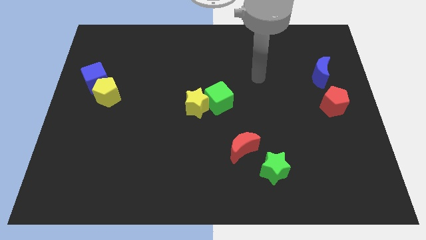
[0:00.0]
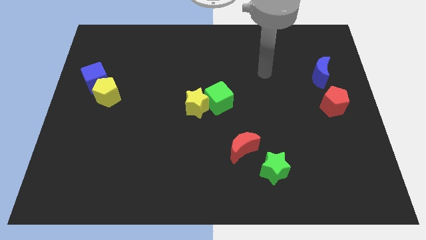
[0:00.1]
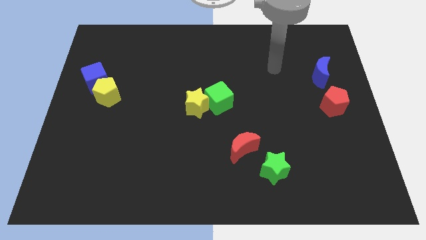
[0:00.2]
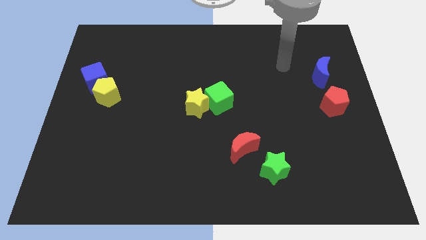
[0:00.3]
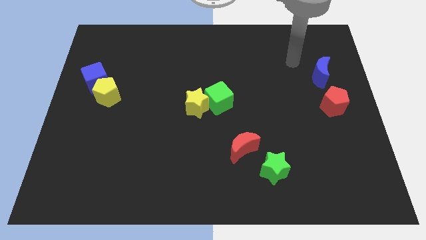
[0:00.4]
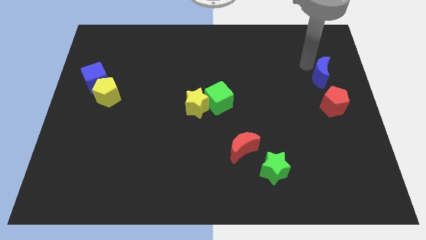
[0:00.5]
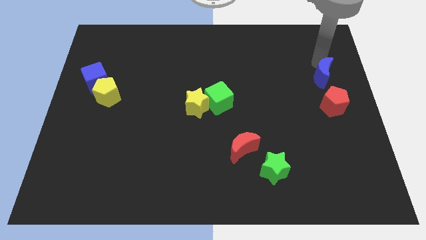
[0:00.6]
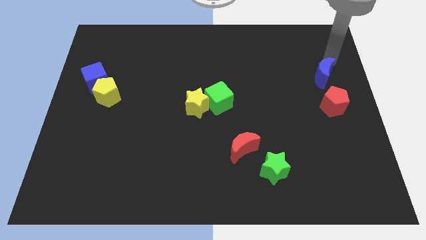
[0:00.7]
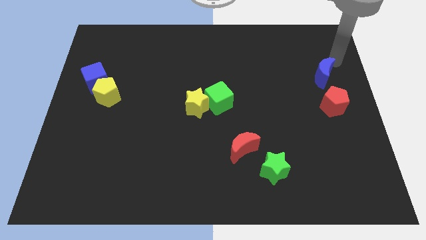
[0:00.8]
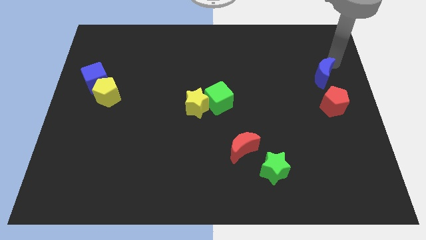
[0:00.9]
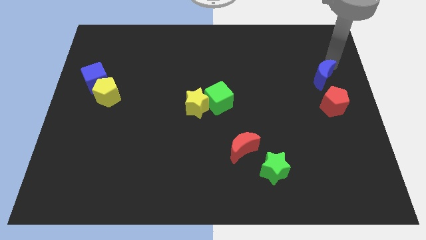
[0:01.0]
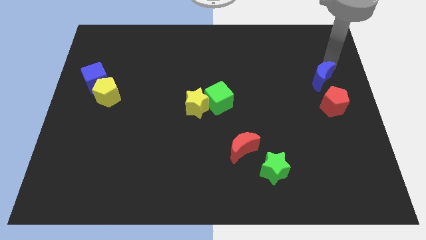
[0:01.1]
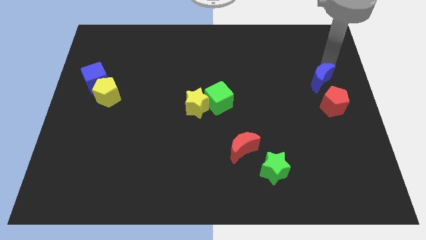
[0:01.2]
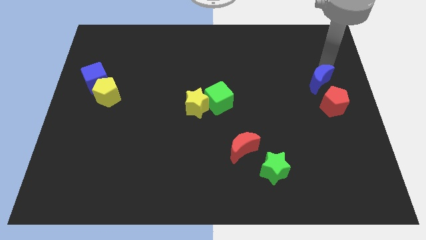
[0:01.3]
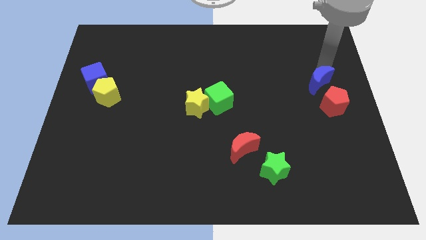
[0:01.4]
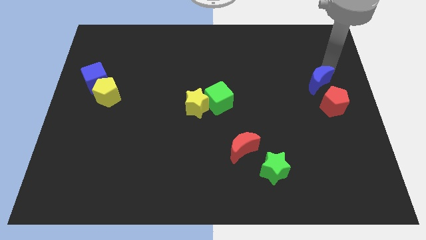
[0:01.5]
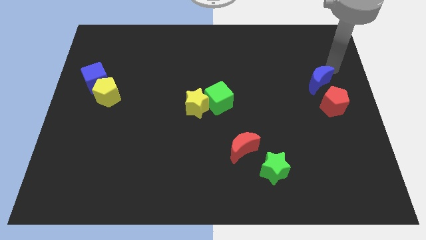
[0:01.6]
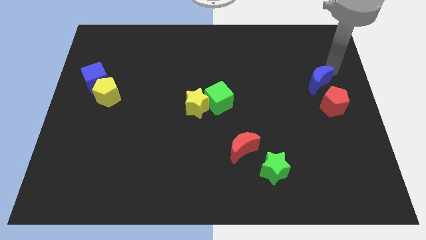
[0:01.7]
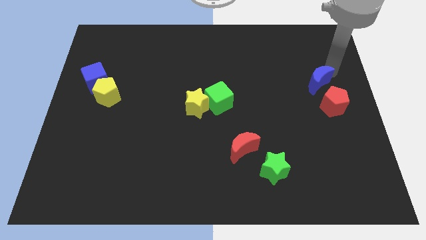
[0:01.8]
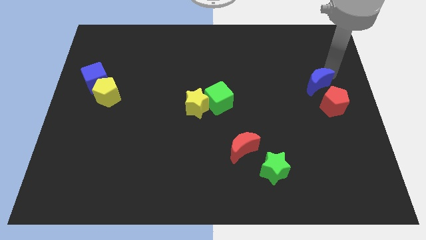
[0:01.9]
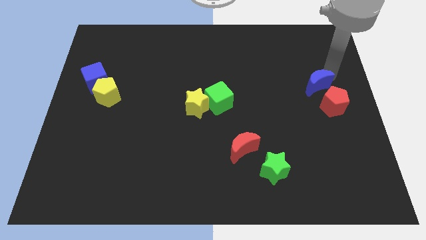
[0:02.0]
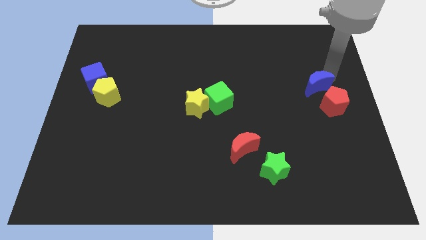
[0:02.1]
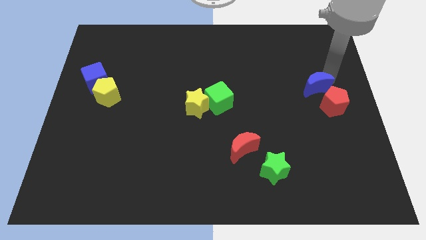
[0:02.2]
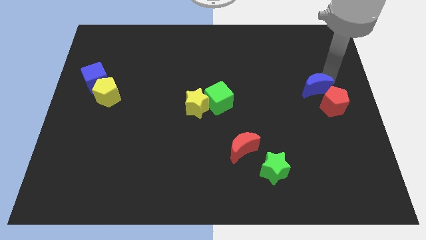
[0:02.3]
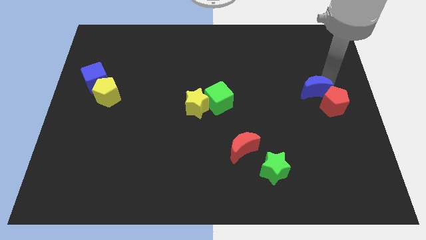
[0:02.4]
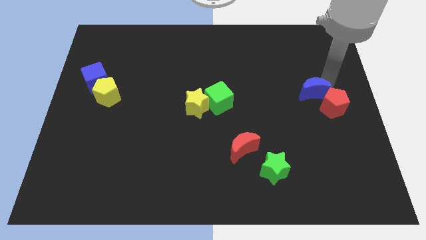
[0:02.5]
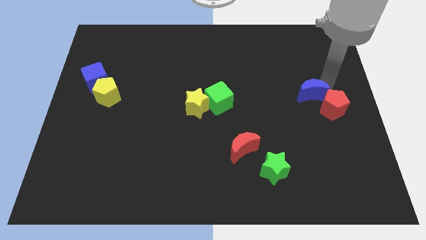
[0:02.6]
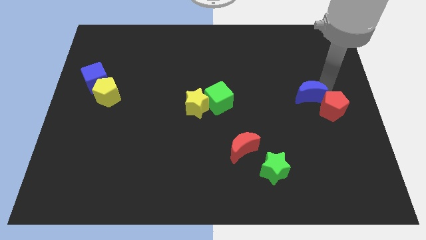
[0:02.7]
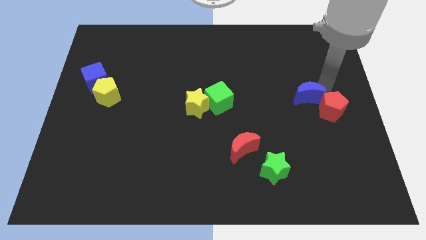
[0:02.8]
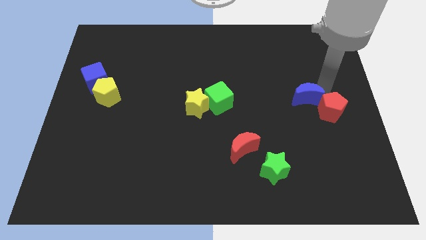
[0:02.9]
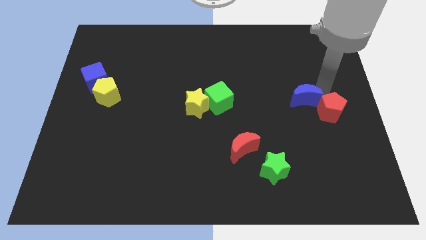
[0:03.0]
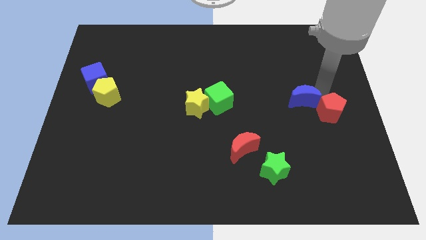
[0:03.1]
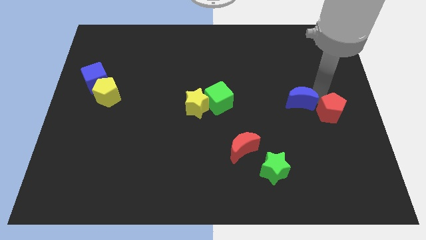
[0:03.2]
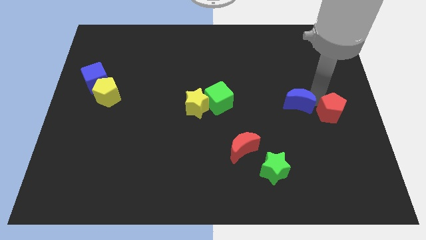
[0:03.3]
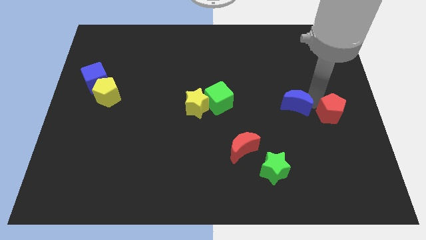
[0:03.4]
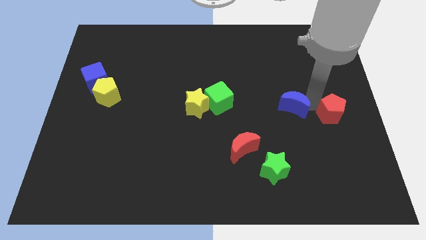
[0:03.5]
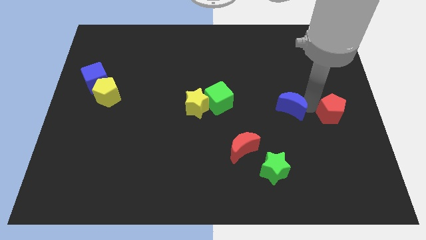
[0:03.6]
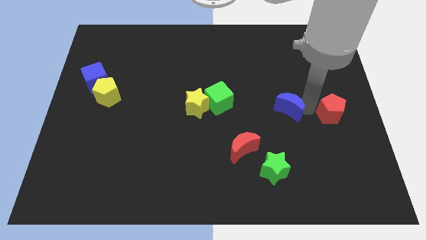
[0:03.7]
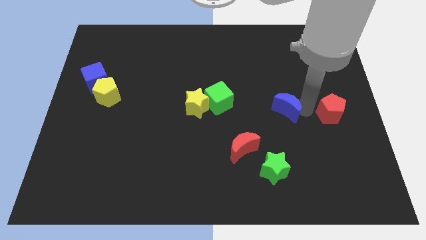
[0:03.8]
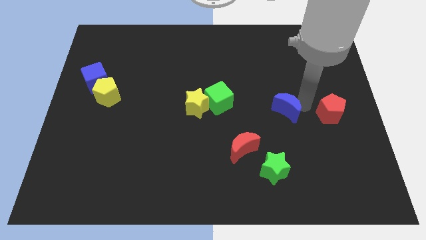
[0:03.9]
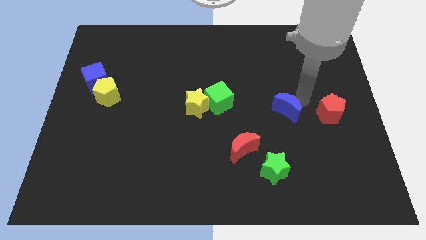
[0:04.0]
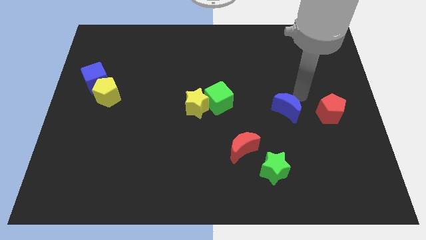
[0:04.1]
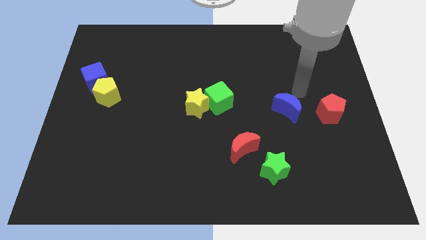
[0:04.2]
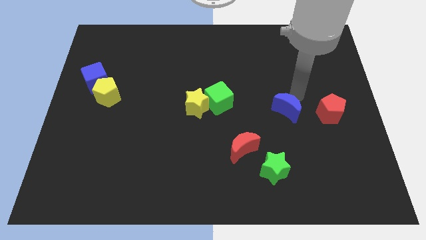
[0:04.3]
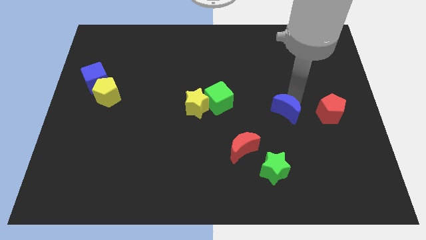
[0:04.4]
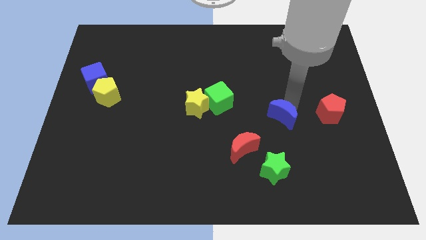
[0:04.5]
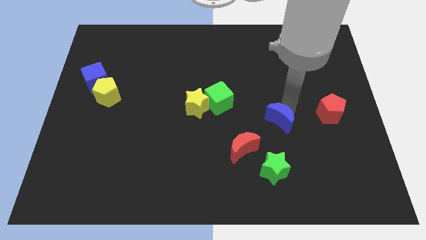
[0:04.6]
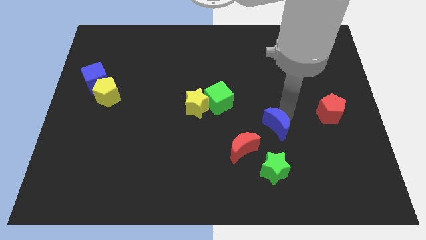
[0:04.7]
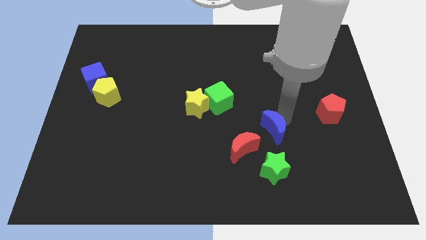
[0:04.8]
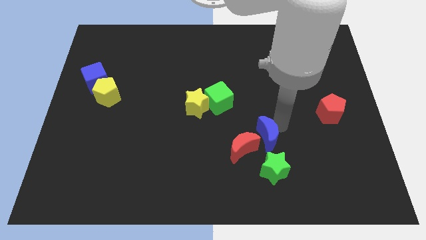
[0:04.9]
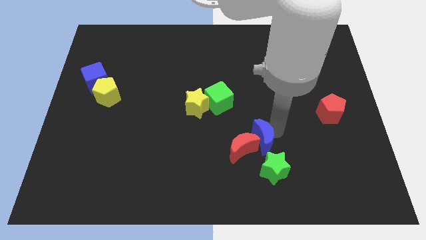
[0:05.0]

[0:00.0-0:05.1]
push the blue moon next to the red moon

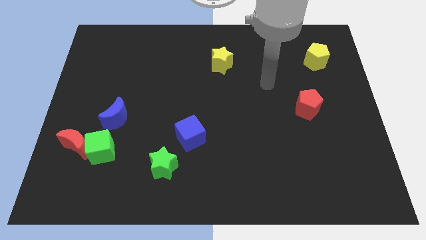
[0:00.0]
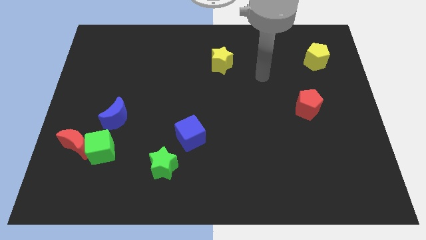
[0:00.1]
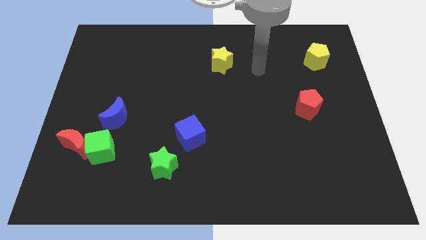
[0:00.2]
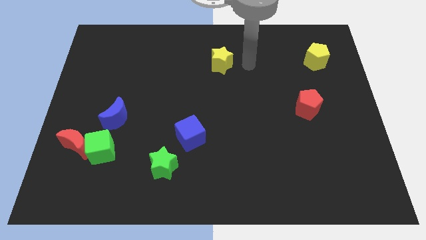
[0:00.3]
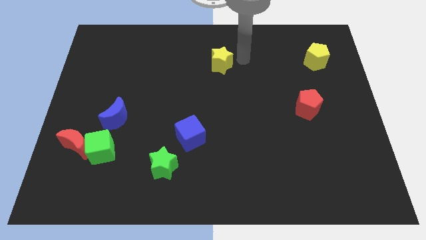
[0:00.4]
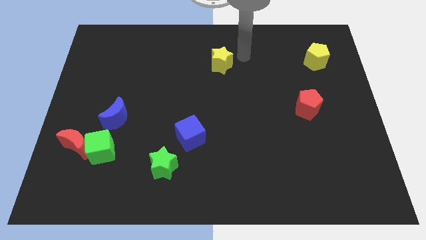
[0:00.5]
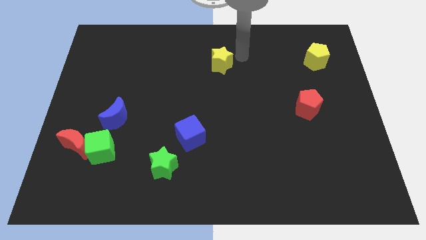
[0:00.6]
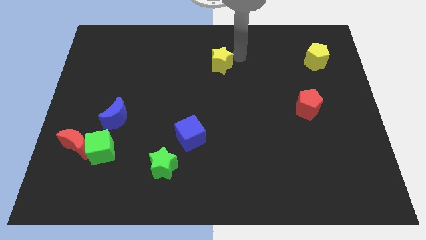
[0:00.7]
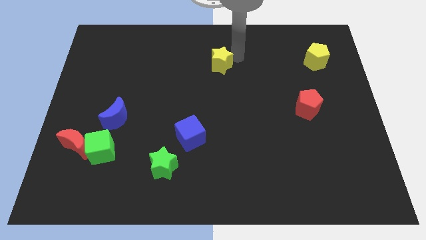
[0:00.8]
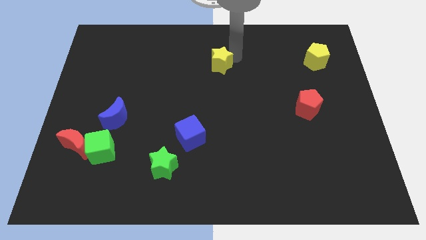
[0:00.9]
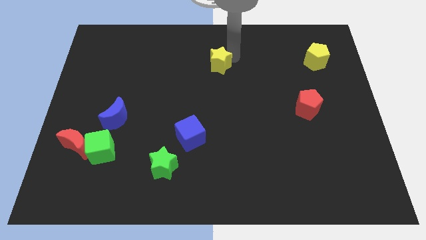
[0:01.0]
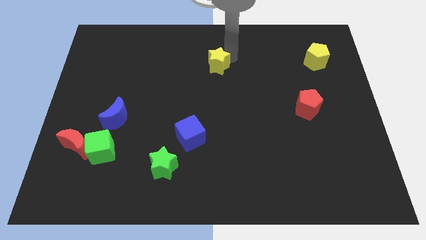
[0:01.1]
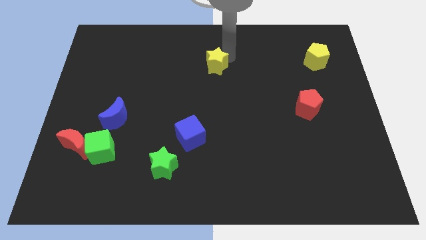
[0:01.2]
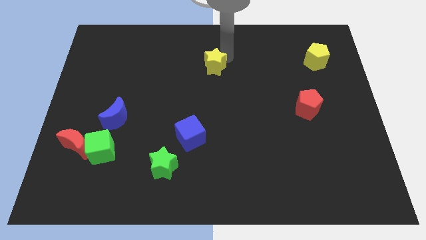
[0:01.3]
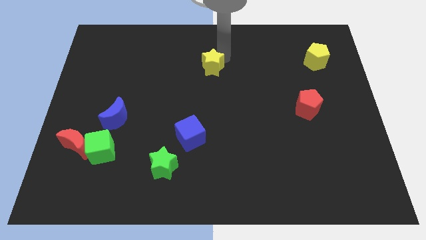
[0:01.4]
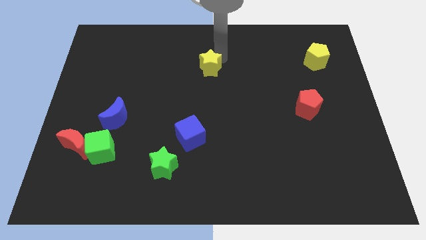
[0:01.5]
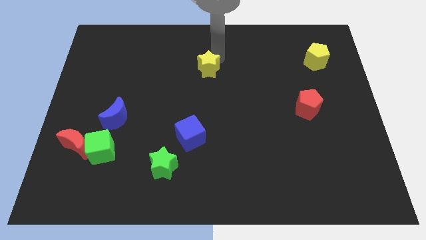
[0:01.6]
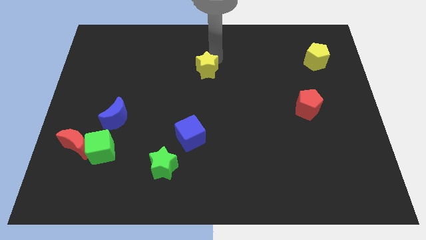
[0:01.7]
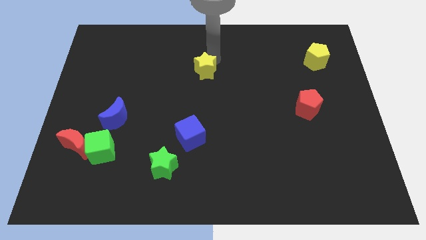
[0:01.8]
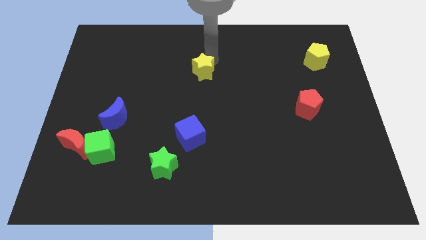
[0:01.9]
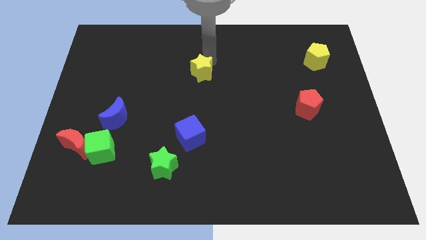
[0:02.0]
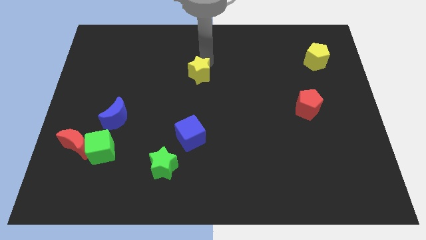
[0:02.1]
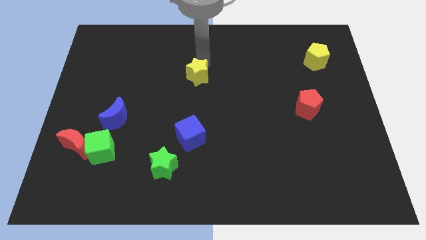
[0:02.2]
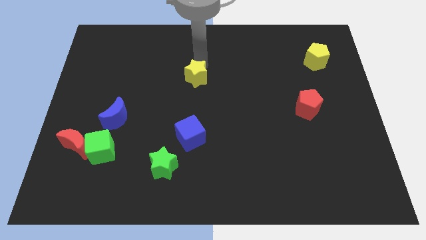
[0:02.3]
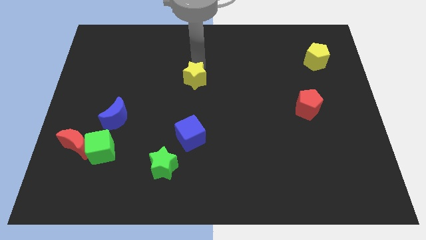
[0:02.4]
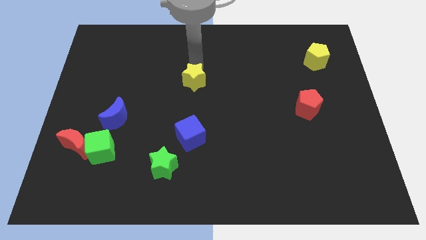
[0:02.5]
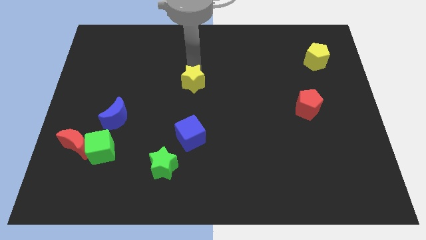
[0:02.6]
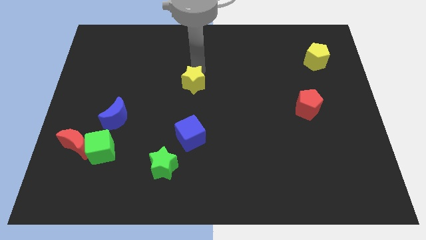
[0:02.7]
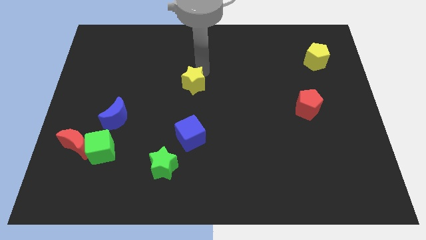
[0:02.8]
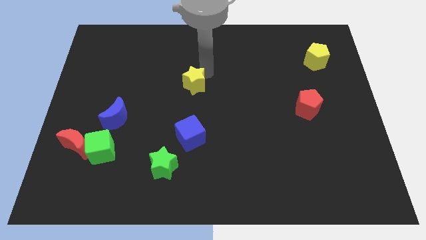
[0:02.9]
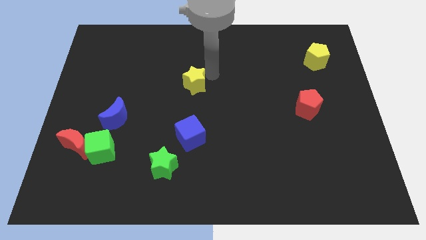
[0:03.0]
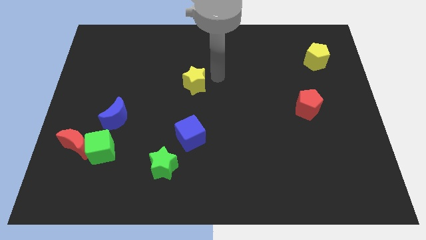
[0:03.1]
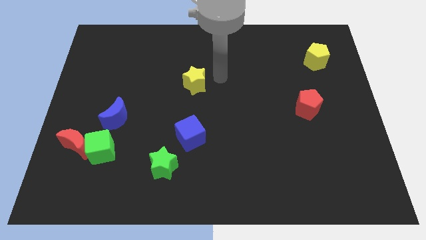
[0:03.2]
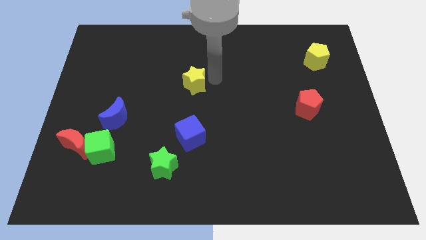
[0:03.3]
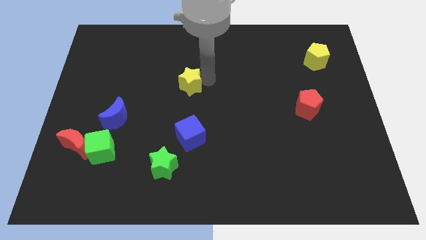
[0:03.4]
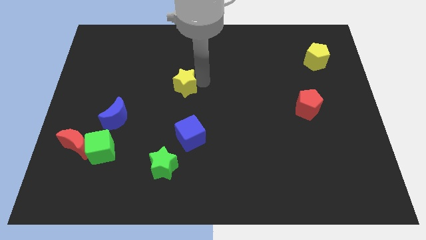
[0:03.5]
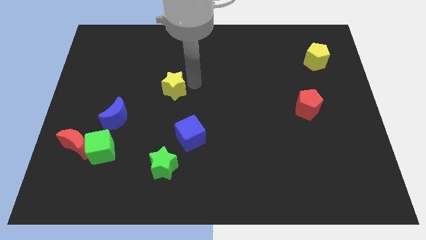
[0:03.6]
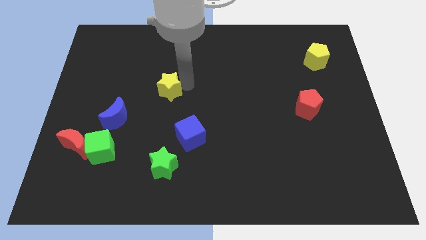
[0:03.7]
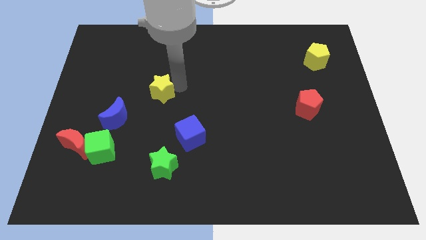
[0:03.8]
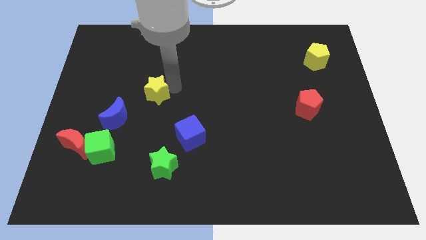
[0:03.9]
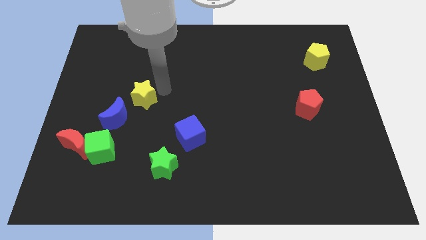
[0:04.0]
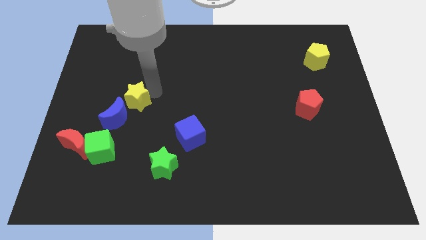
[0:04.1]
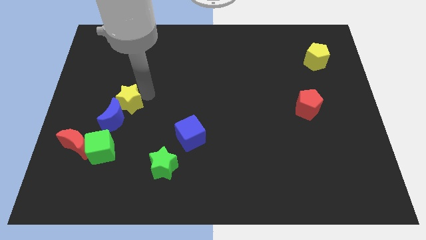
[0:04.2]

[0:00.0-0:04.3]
slide the yellow star towards the blue moon
